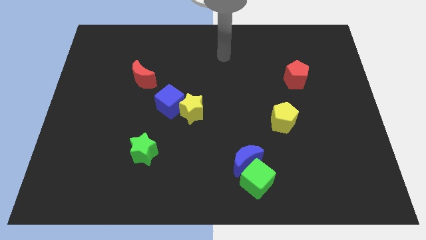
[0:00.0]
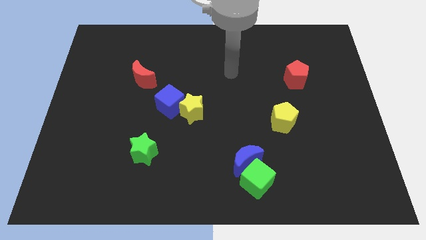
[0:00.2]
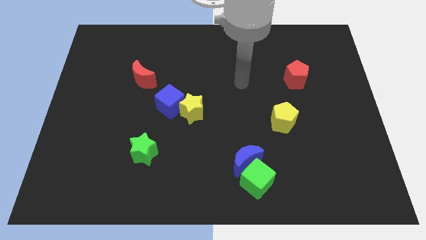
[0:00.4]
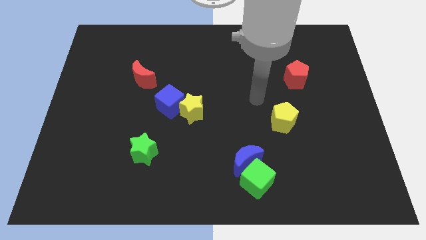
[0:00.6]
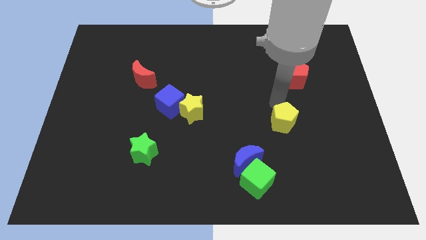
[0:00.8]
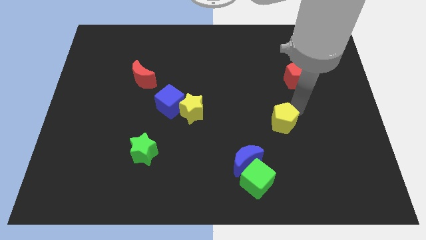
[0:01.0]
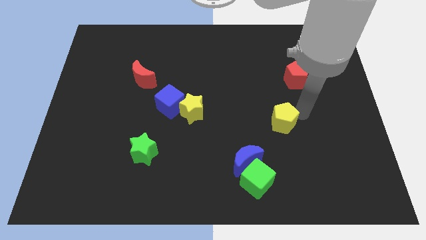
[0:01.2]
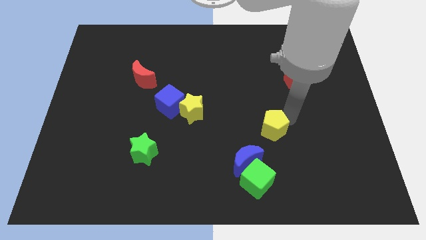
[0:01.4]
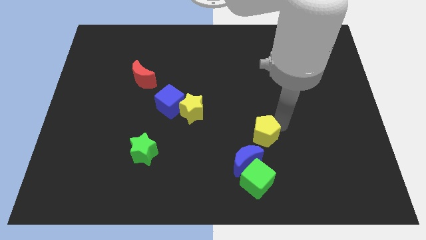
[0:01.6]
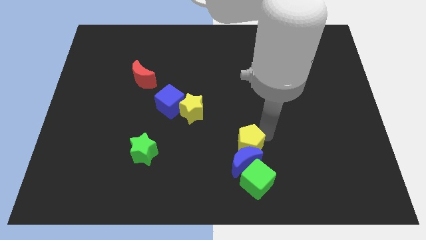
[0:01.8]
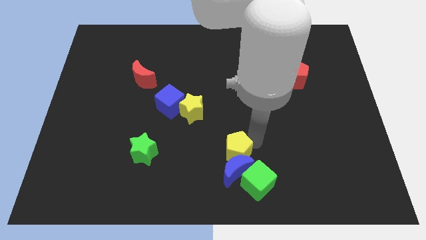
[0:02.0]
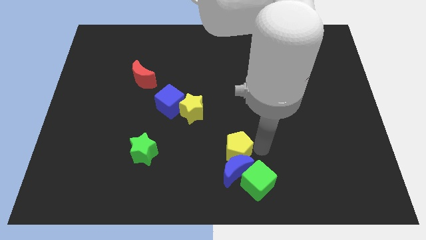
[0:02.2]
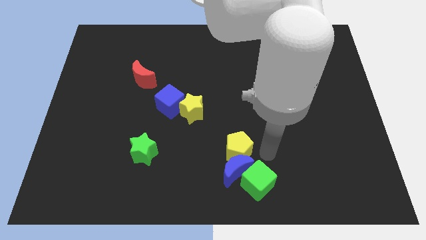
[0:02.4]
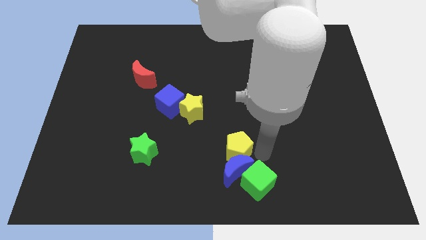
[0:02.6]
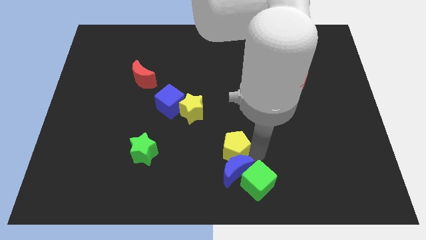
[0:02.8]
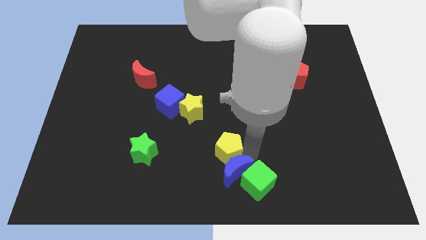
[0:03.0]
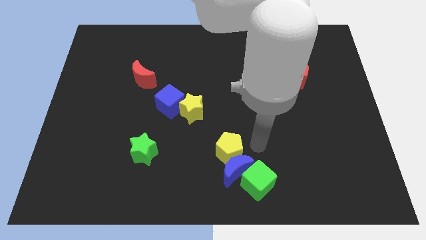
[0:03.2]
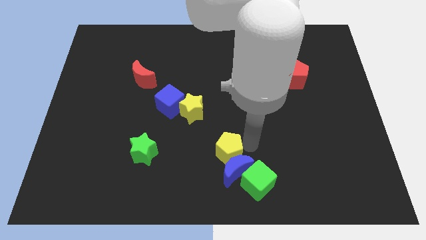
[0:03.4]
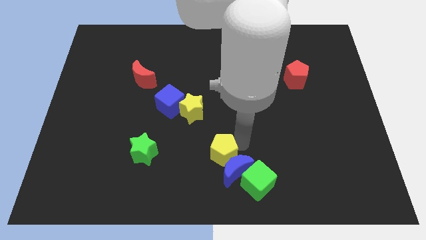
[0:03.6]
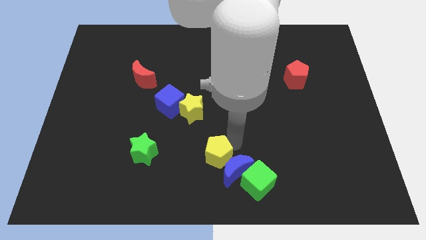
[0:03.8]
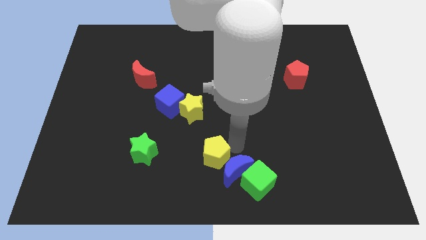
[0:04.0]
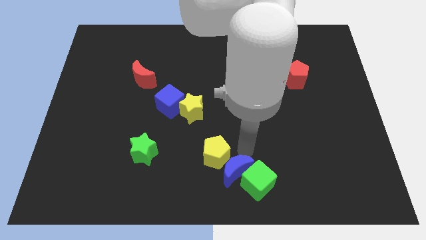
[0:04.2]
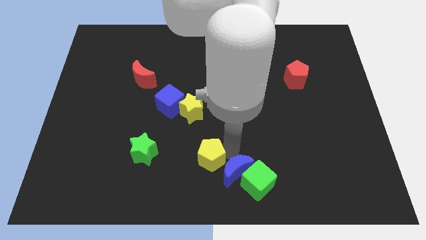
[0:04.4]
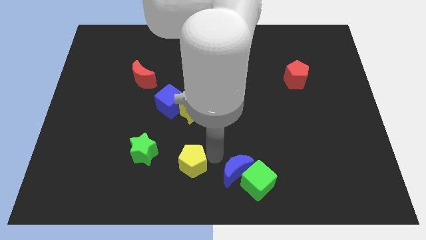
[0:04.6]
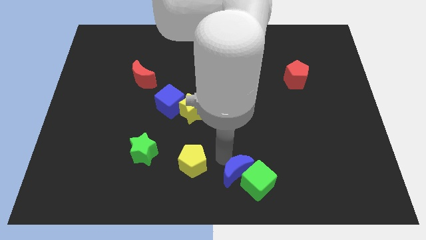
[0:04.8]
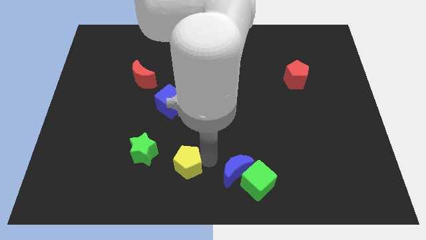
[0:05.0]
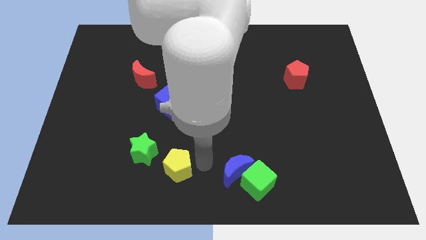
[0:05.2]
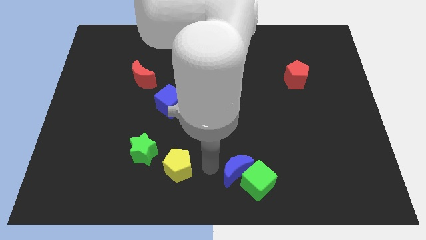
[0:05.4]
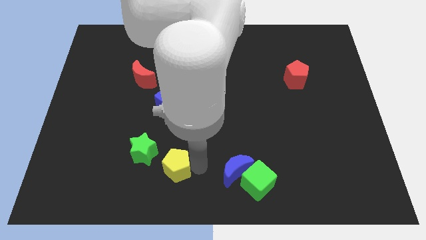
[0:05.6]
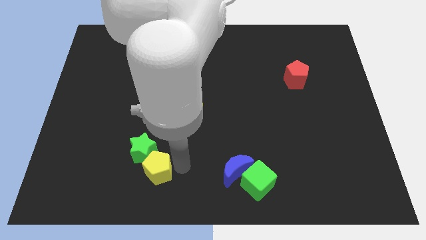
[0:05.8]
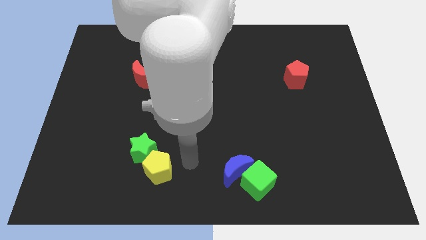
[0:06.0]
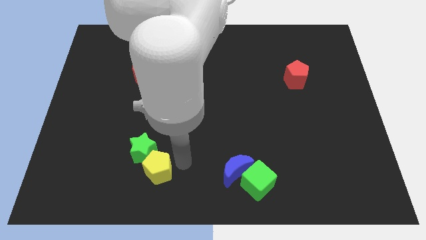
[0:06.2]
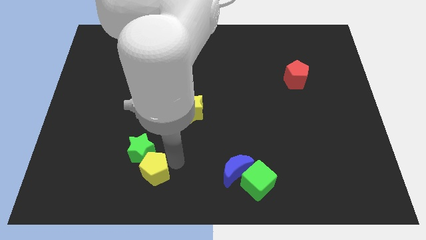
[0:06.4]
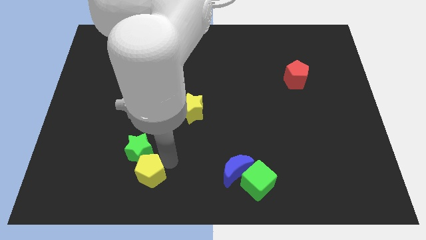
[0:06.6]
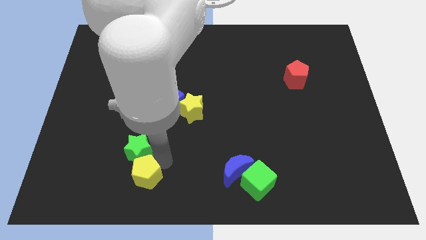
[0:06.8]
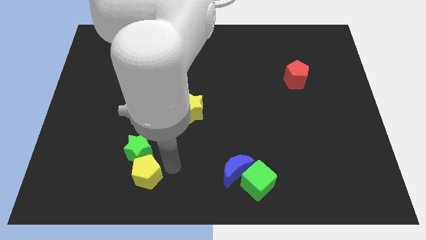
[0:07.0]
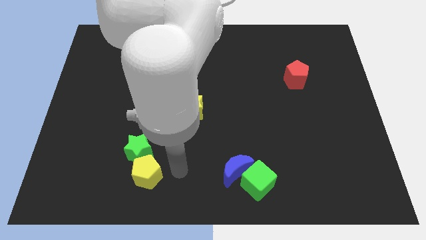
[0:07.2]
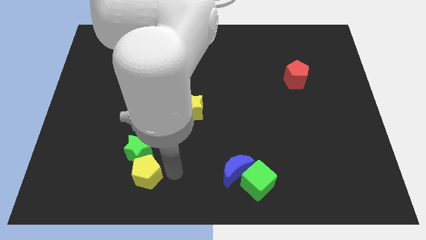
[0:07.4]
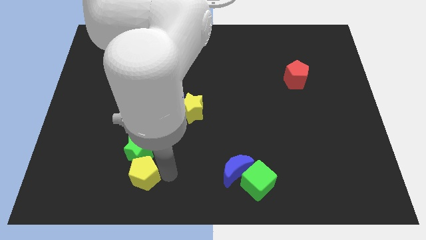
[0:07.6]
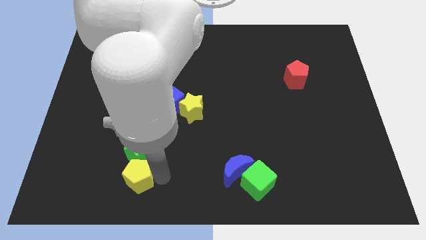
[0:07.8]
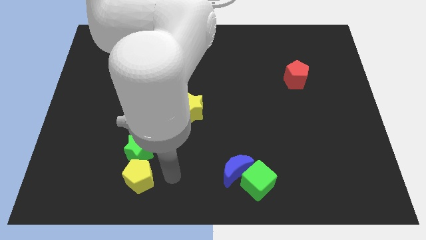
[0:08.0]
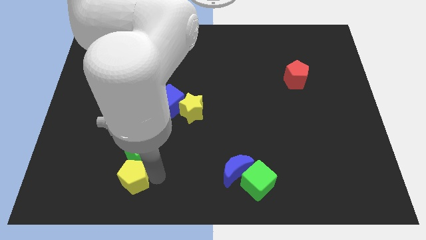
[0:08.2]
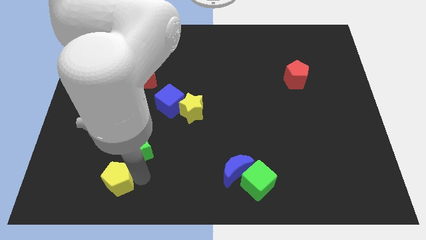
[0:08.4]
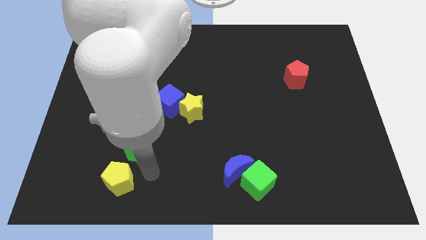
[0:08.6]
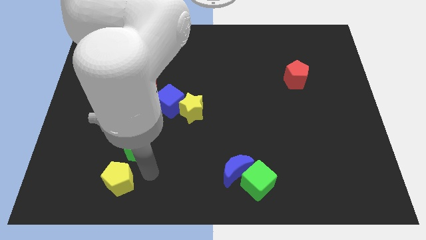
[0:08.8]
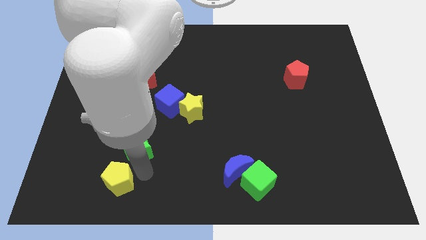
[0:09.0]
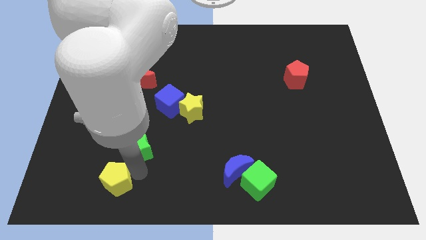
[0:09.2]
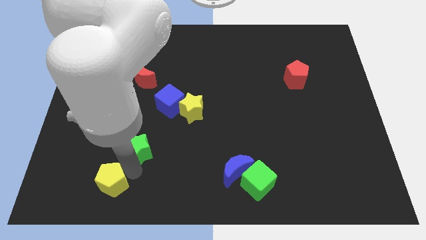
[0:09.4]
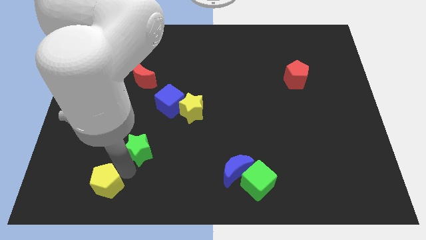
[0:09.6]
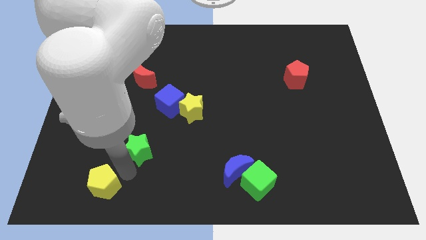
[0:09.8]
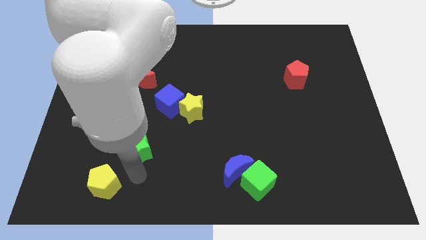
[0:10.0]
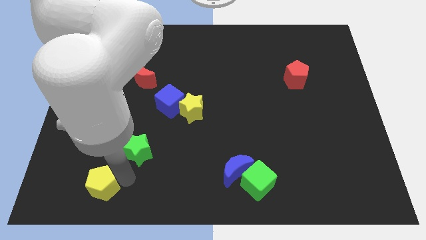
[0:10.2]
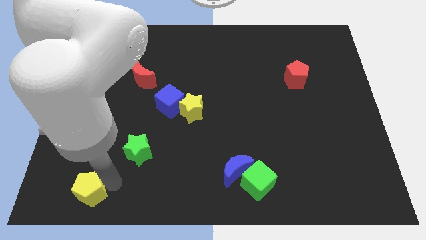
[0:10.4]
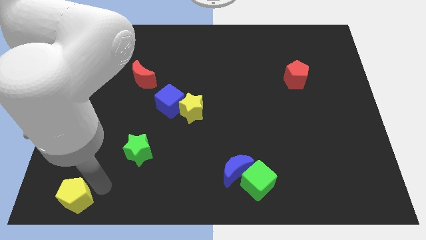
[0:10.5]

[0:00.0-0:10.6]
put the yellow pentagon to the lower left corner

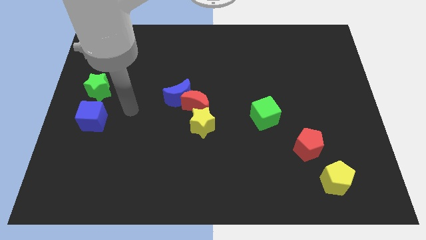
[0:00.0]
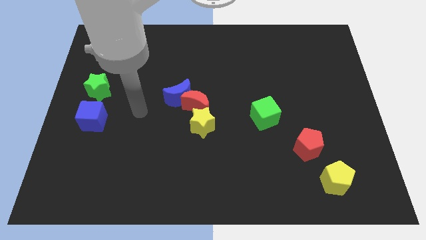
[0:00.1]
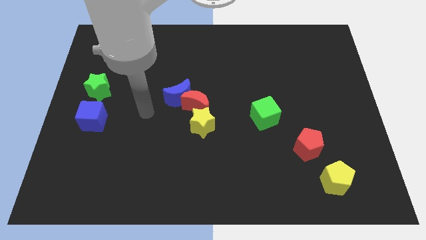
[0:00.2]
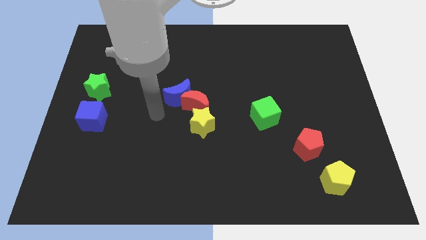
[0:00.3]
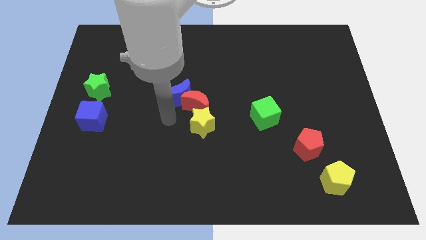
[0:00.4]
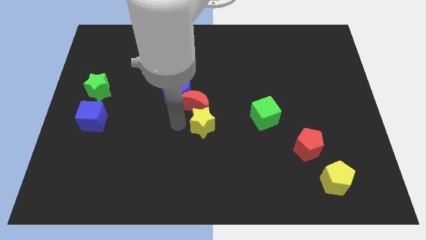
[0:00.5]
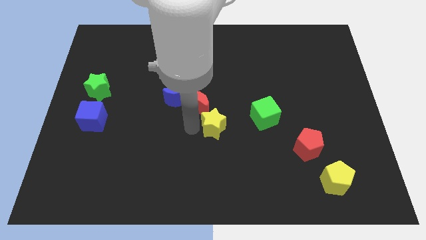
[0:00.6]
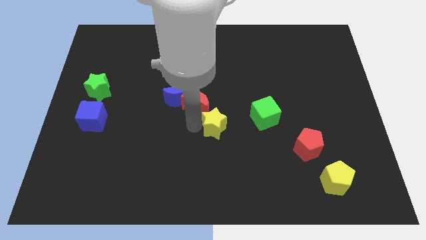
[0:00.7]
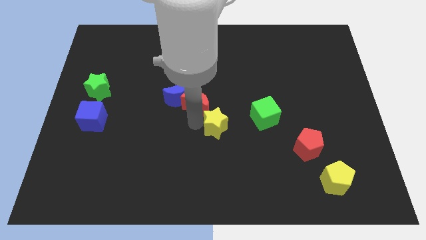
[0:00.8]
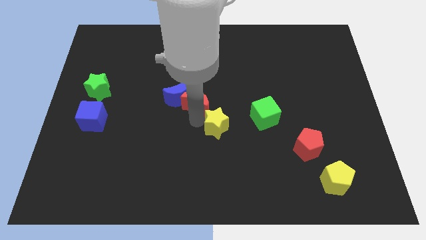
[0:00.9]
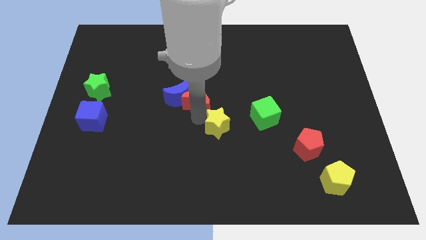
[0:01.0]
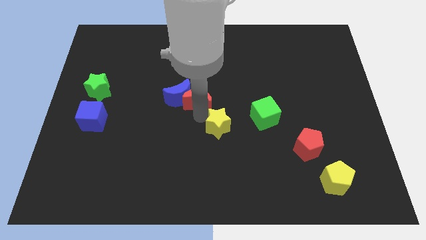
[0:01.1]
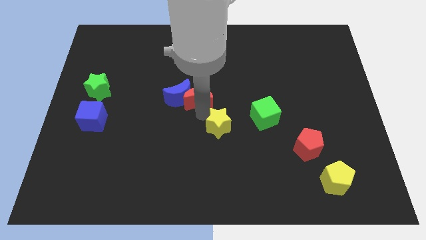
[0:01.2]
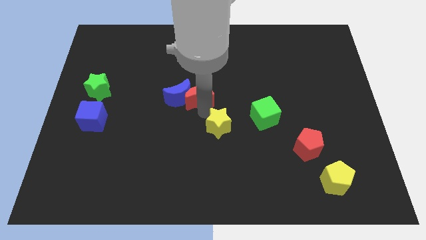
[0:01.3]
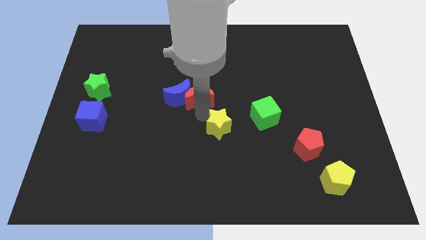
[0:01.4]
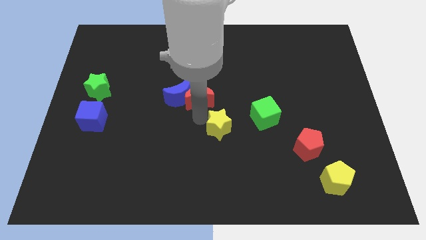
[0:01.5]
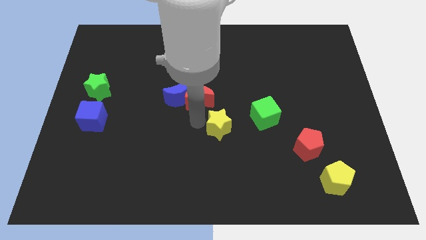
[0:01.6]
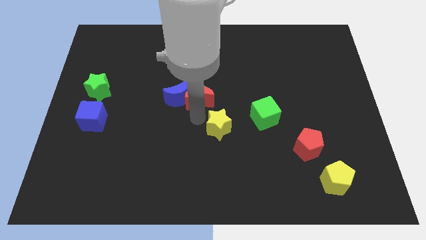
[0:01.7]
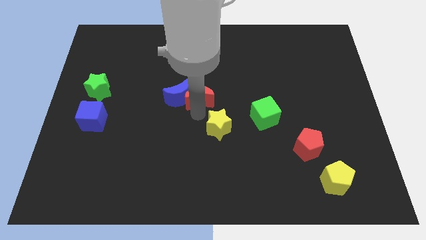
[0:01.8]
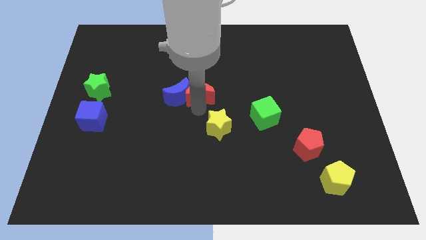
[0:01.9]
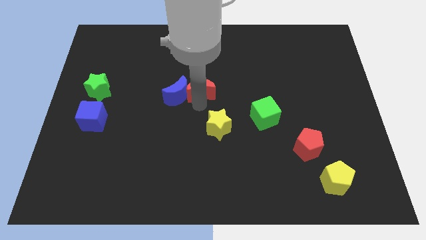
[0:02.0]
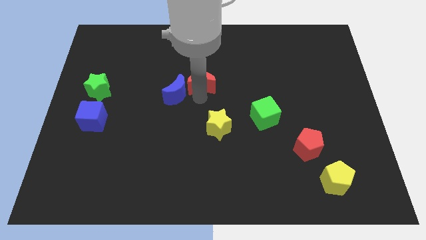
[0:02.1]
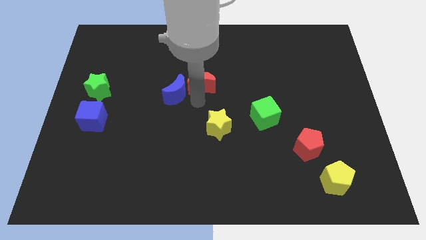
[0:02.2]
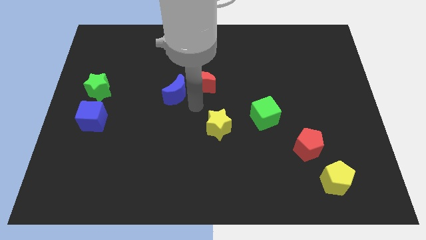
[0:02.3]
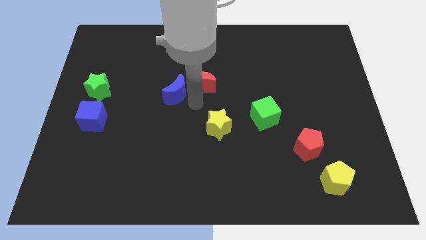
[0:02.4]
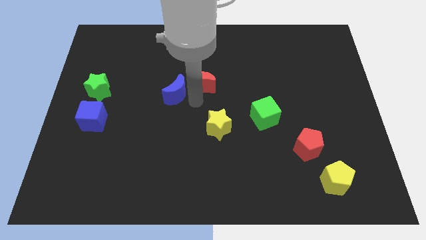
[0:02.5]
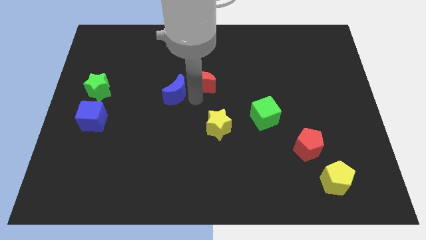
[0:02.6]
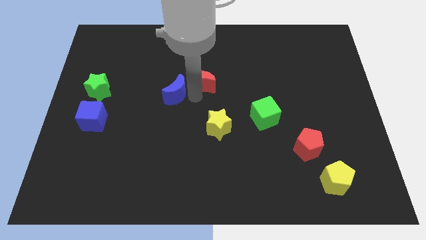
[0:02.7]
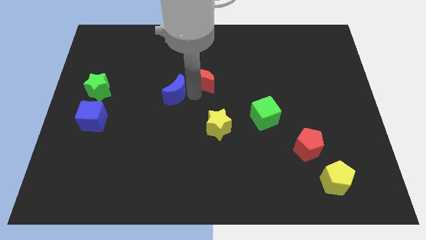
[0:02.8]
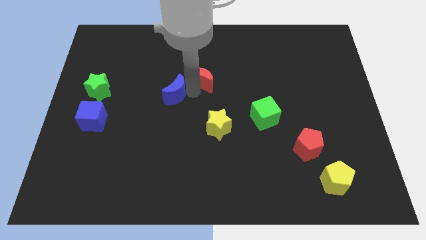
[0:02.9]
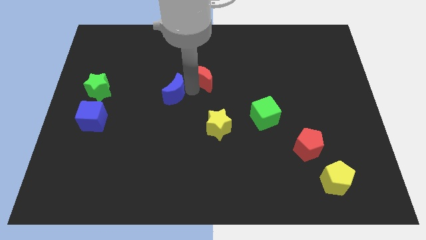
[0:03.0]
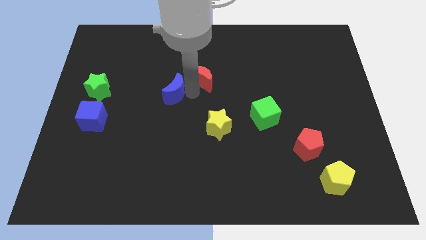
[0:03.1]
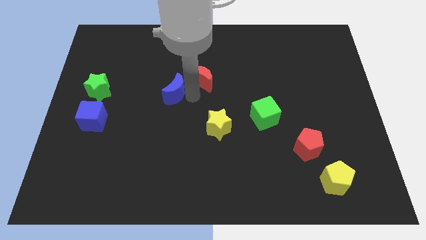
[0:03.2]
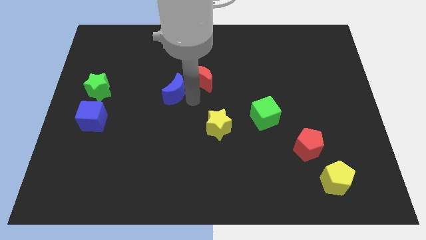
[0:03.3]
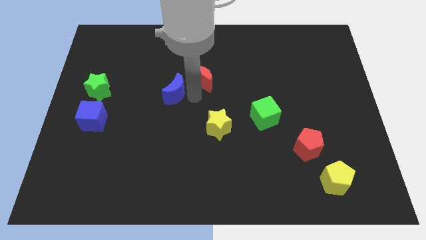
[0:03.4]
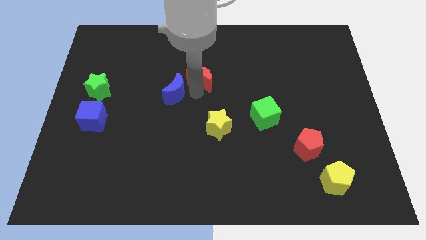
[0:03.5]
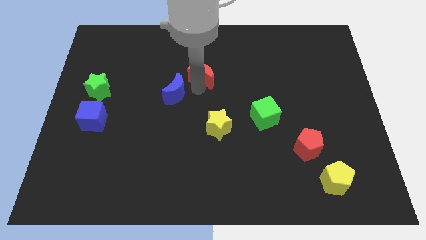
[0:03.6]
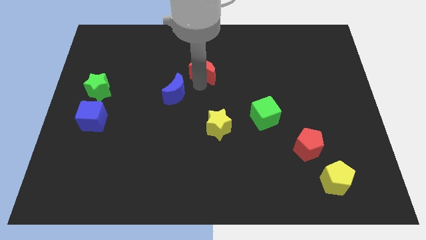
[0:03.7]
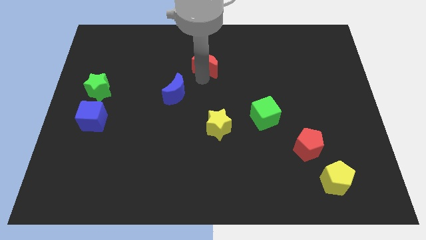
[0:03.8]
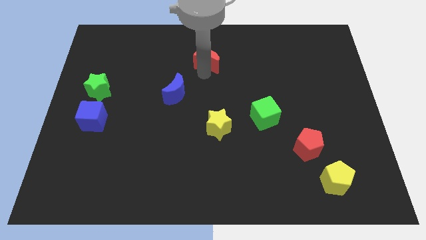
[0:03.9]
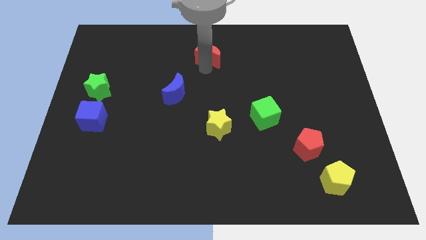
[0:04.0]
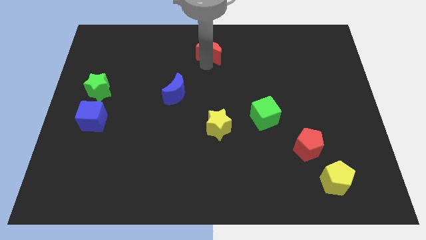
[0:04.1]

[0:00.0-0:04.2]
put the red moon to the top
